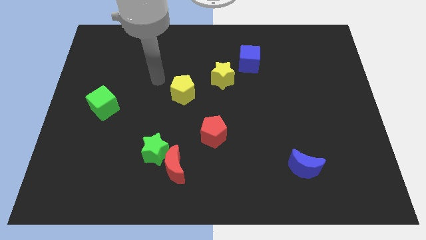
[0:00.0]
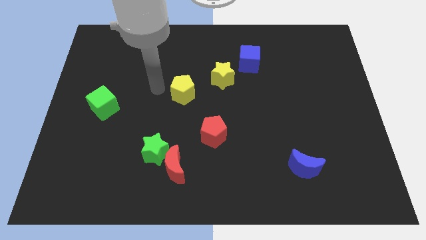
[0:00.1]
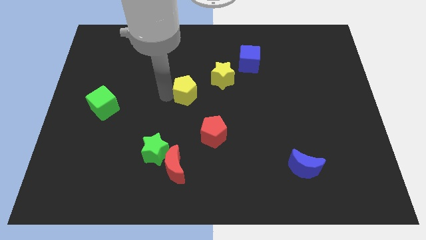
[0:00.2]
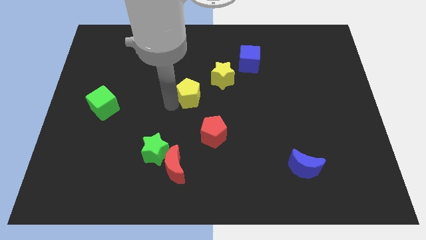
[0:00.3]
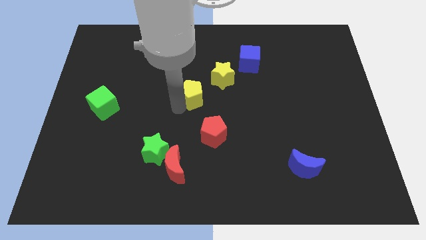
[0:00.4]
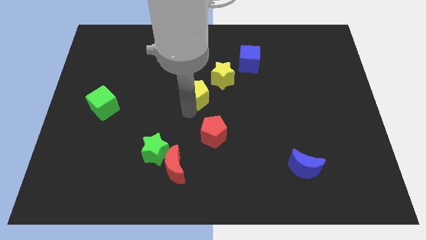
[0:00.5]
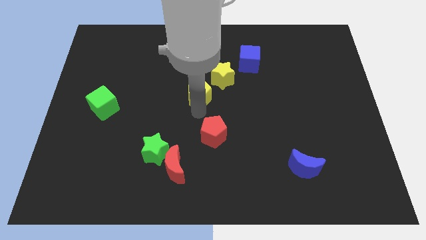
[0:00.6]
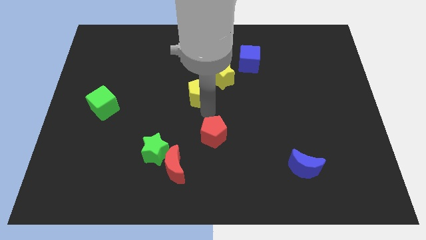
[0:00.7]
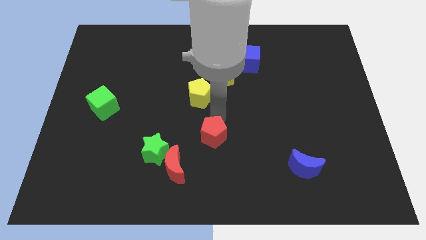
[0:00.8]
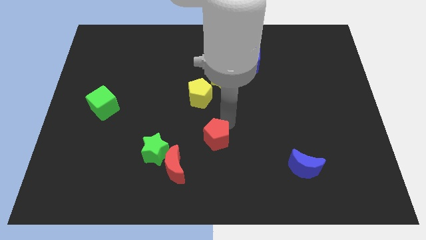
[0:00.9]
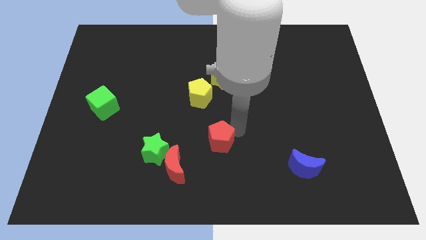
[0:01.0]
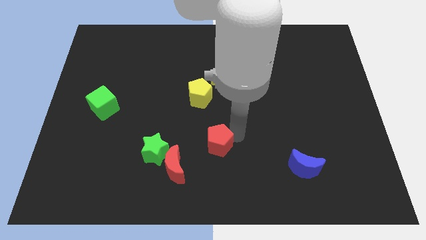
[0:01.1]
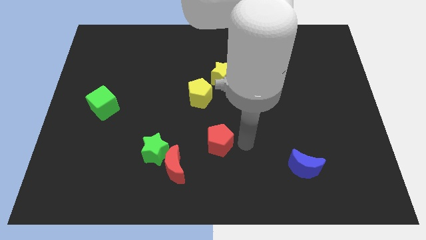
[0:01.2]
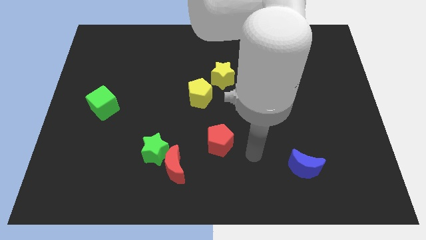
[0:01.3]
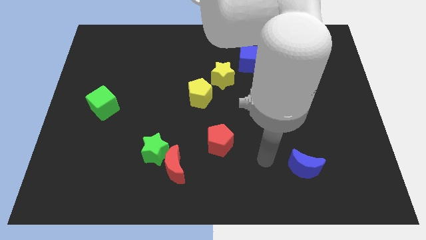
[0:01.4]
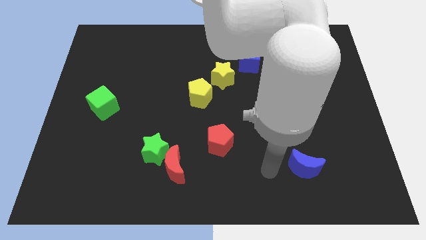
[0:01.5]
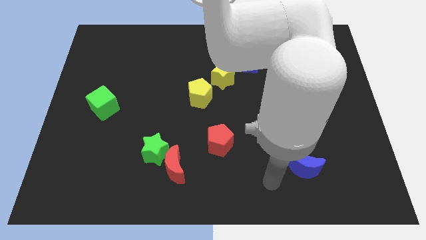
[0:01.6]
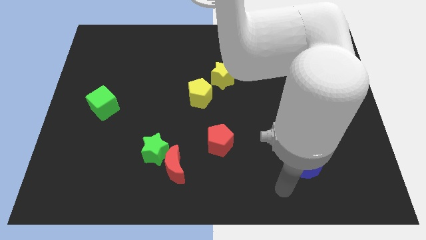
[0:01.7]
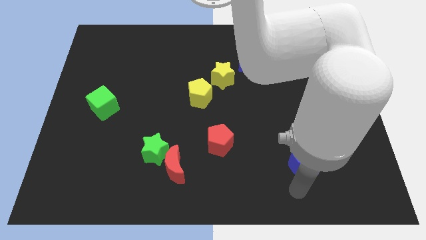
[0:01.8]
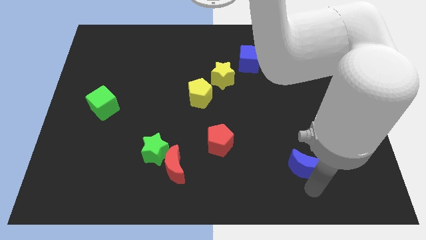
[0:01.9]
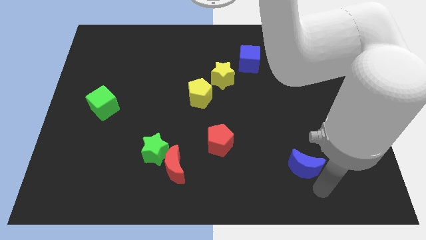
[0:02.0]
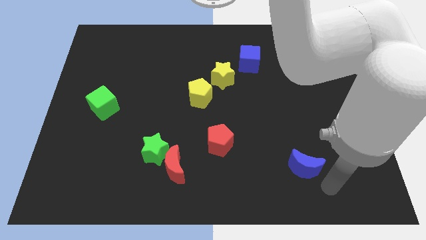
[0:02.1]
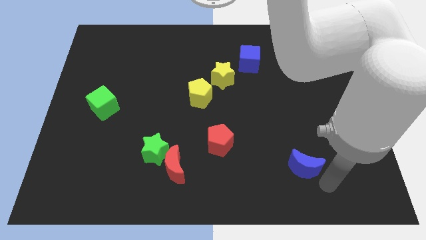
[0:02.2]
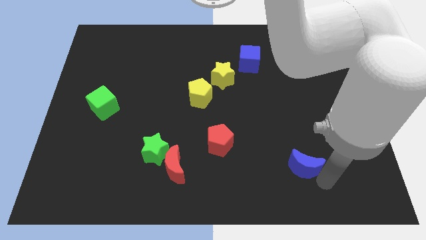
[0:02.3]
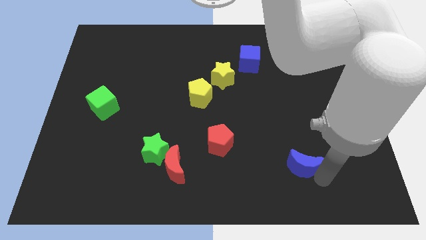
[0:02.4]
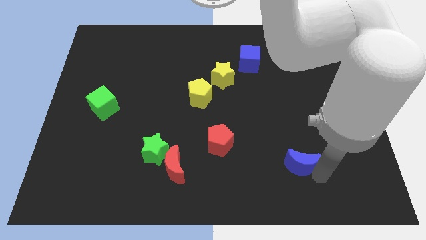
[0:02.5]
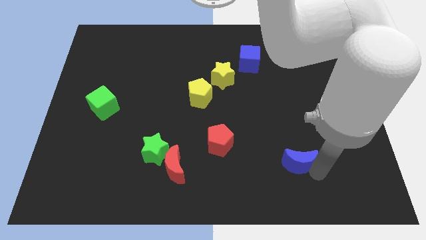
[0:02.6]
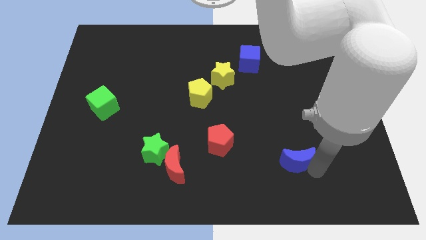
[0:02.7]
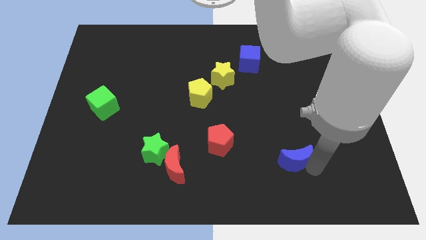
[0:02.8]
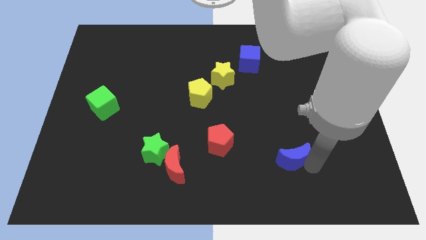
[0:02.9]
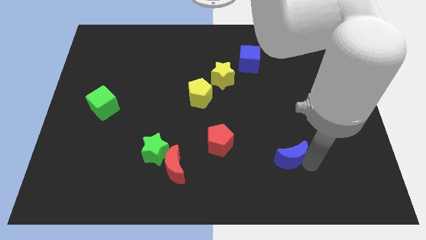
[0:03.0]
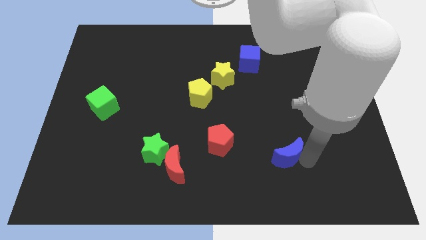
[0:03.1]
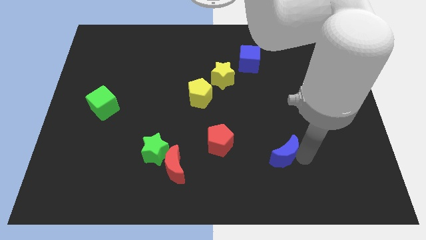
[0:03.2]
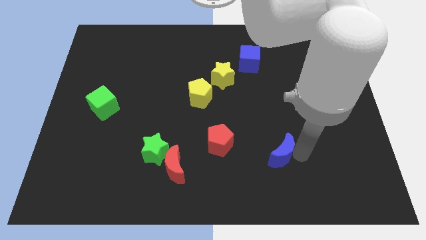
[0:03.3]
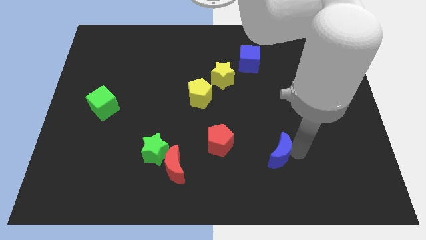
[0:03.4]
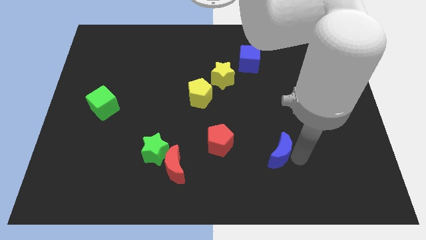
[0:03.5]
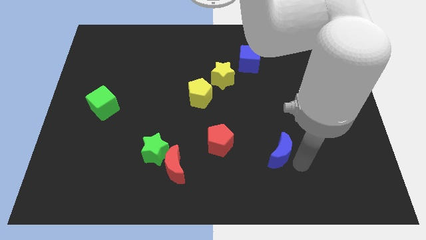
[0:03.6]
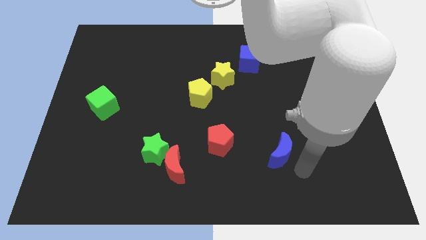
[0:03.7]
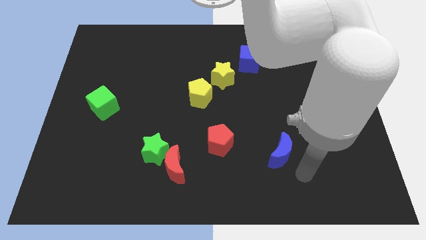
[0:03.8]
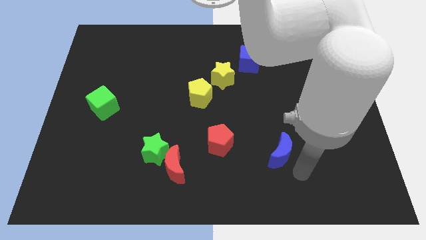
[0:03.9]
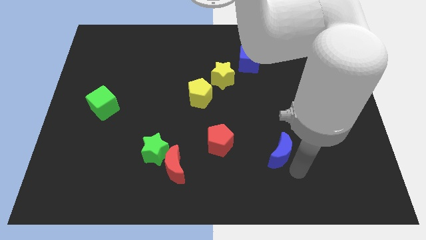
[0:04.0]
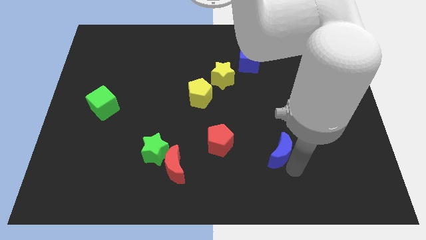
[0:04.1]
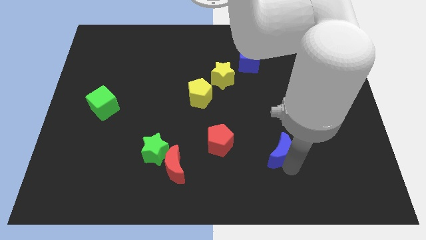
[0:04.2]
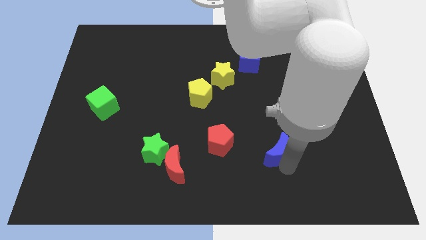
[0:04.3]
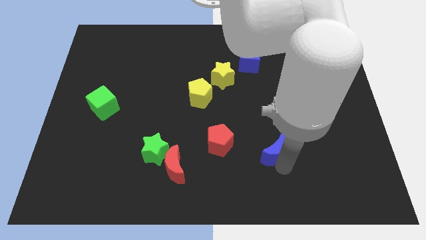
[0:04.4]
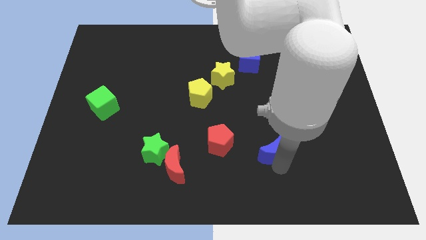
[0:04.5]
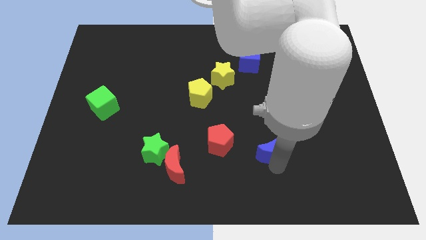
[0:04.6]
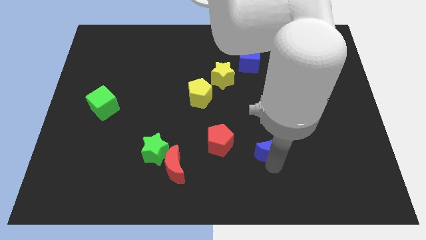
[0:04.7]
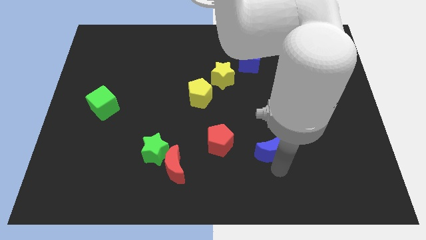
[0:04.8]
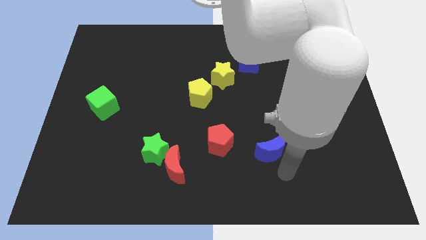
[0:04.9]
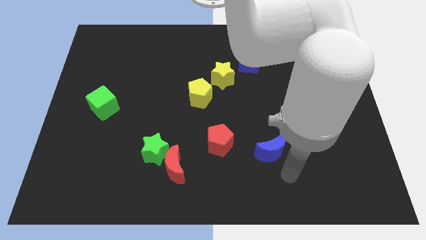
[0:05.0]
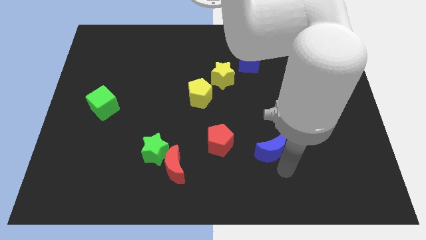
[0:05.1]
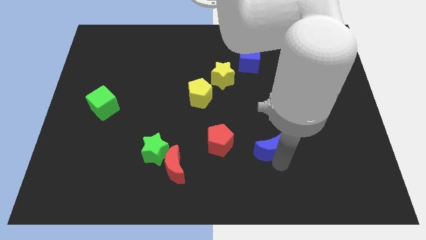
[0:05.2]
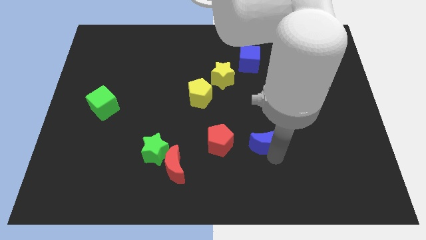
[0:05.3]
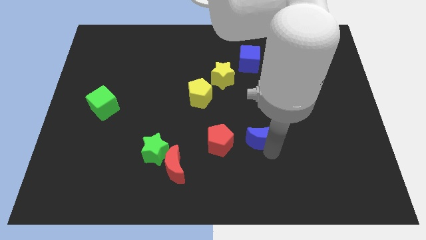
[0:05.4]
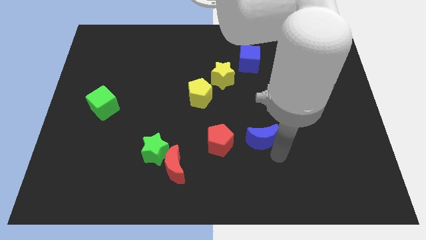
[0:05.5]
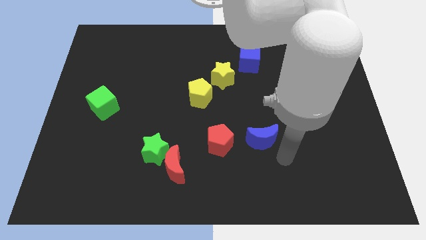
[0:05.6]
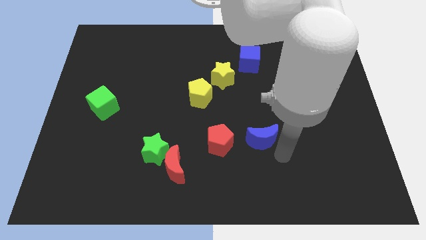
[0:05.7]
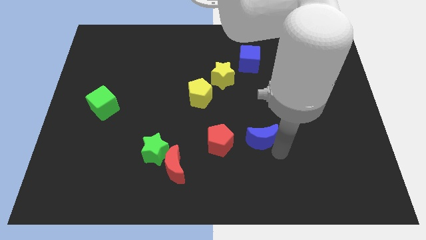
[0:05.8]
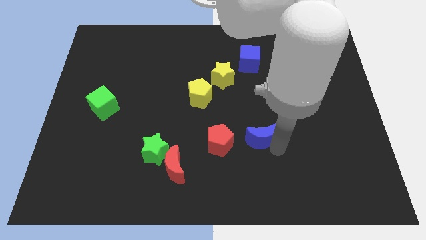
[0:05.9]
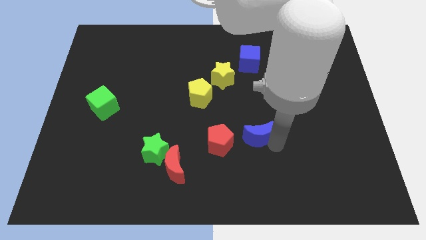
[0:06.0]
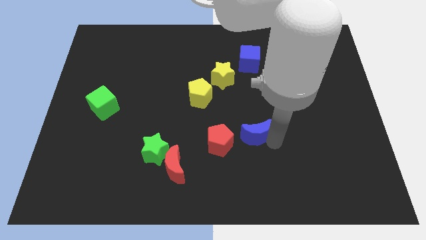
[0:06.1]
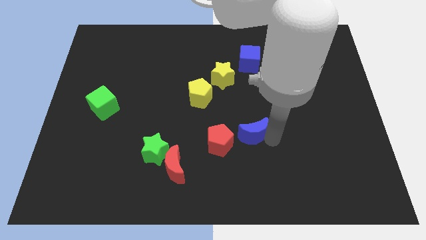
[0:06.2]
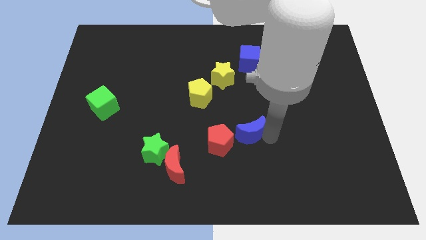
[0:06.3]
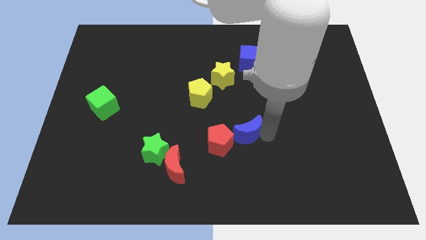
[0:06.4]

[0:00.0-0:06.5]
slide the blue moon to the middle
